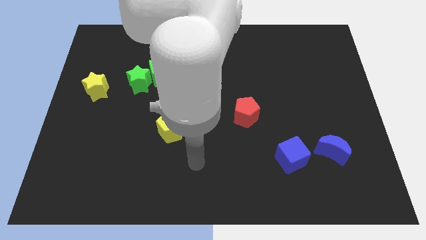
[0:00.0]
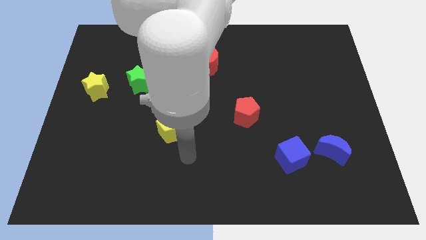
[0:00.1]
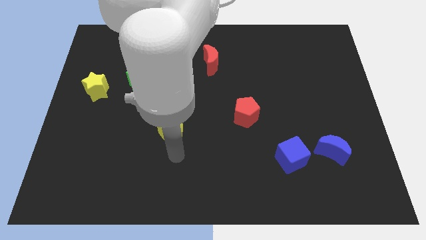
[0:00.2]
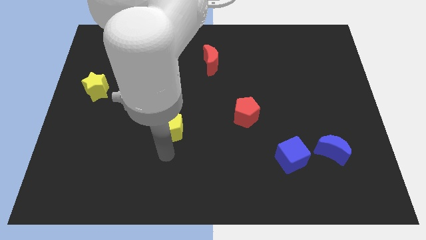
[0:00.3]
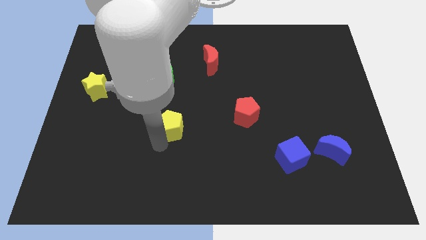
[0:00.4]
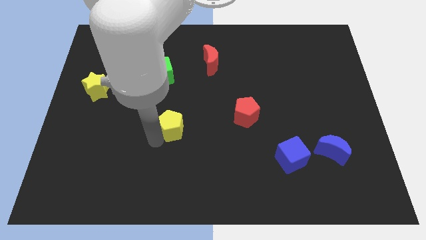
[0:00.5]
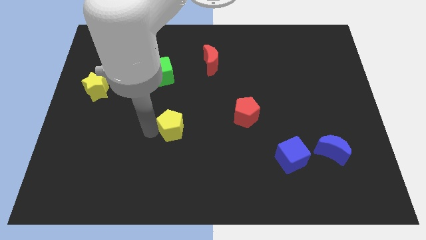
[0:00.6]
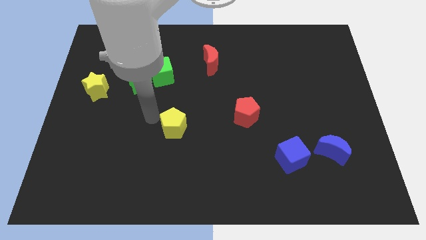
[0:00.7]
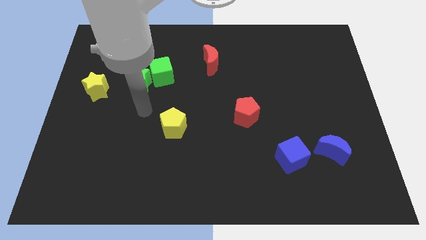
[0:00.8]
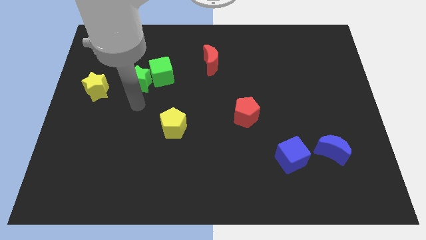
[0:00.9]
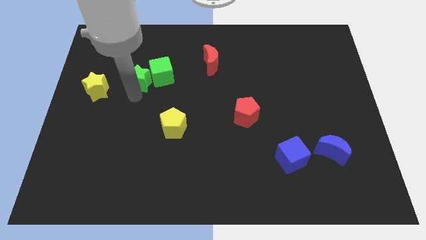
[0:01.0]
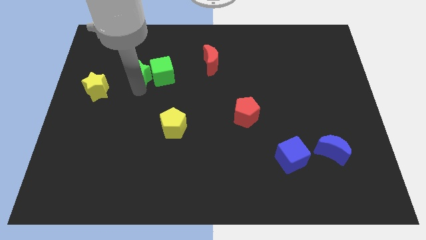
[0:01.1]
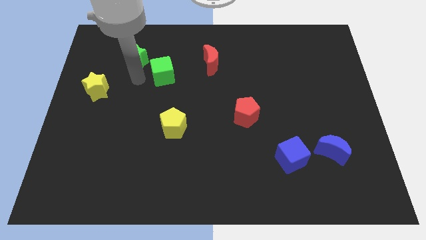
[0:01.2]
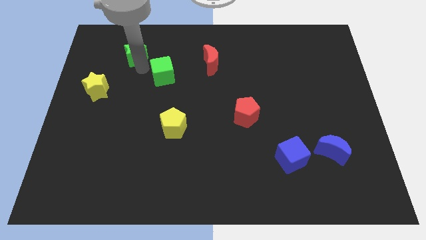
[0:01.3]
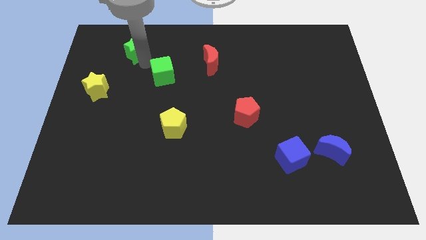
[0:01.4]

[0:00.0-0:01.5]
pull the green cube apart from the green star

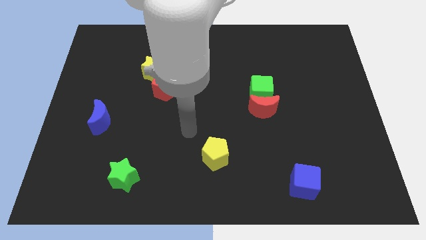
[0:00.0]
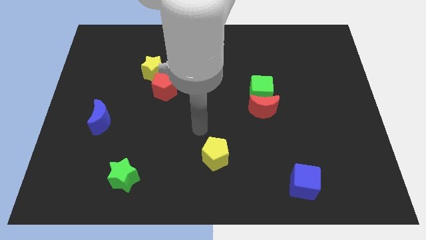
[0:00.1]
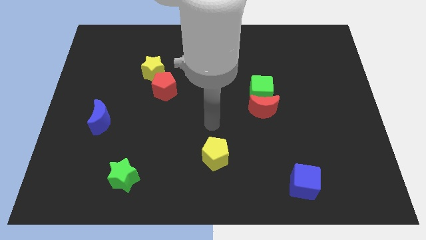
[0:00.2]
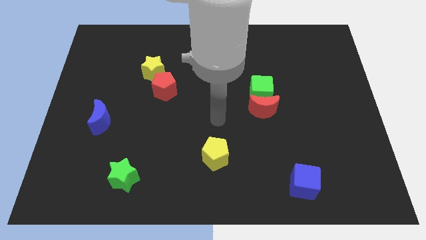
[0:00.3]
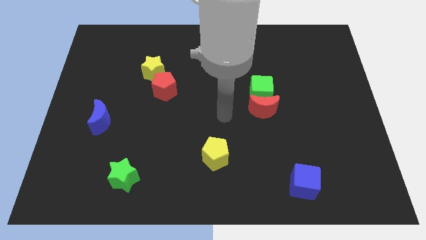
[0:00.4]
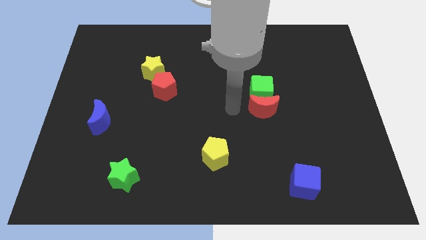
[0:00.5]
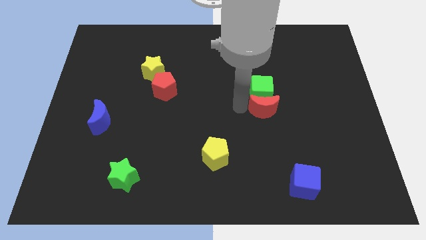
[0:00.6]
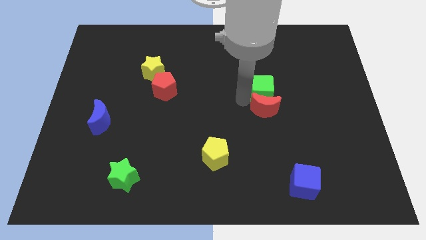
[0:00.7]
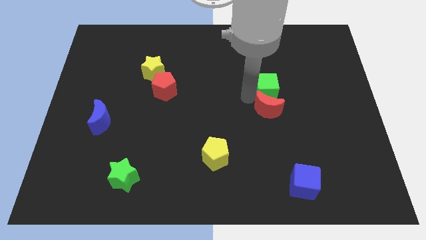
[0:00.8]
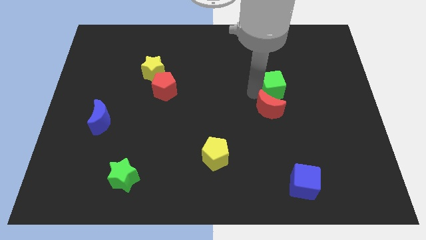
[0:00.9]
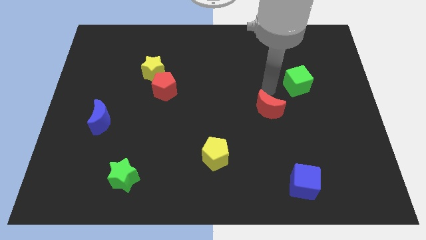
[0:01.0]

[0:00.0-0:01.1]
move the red moon away from the green cube

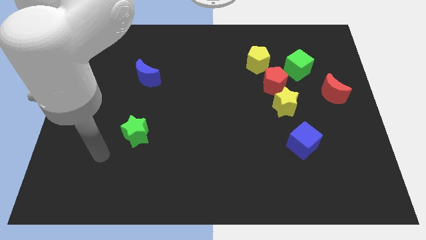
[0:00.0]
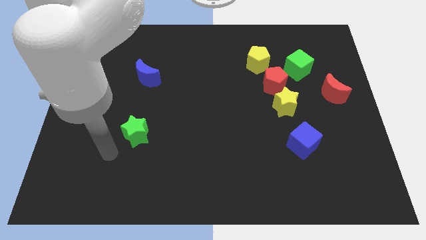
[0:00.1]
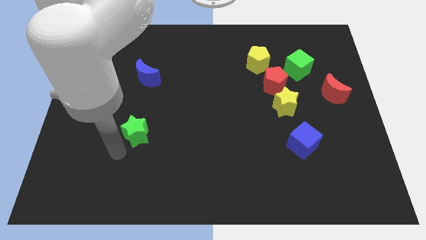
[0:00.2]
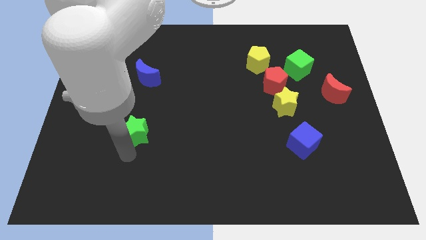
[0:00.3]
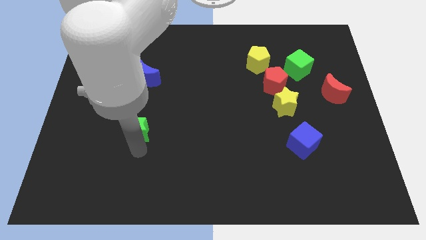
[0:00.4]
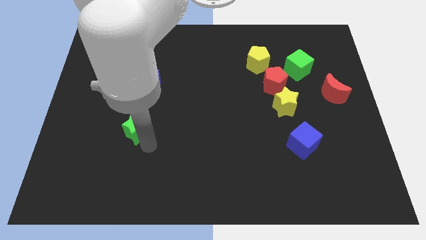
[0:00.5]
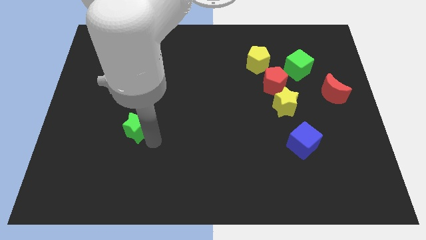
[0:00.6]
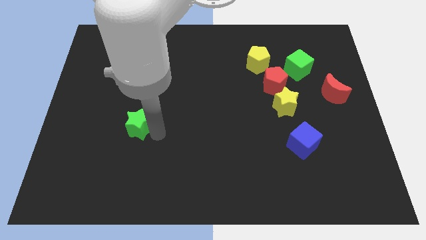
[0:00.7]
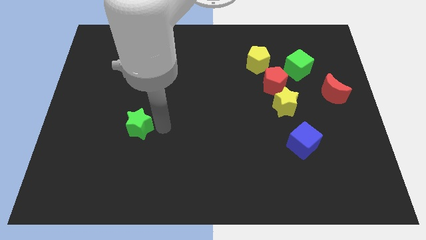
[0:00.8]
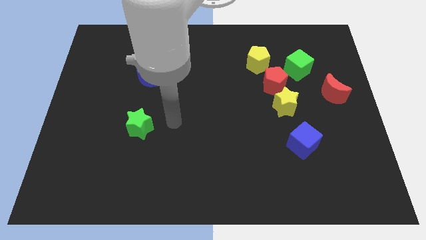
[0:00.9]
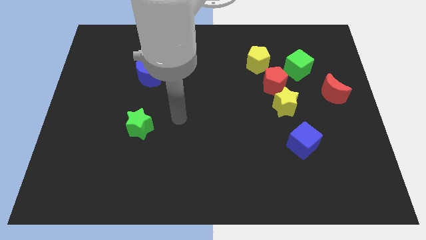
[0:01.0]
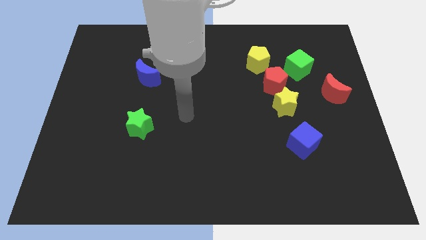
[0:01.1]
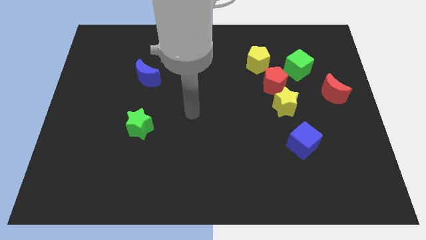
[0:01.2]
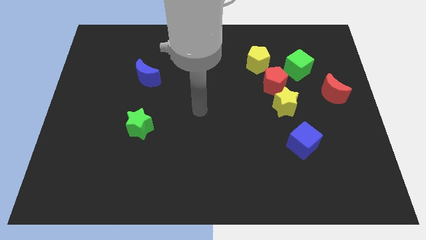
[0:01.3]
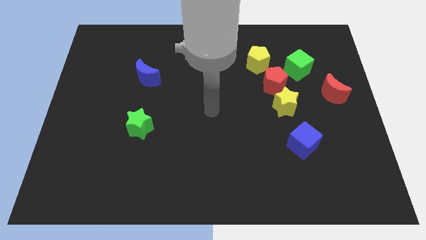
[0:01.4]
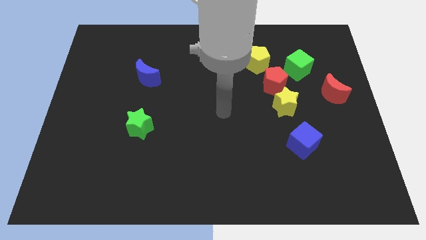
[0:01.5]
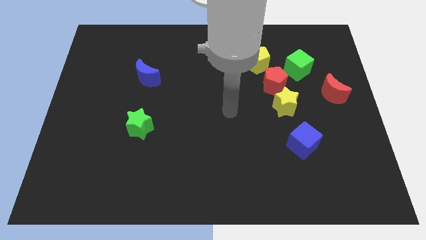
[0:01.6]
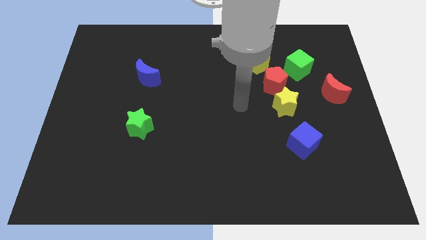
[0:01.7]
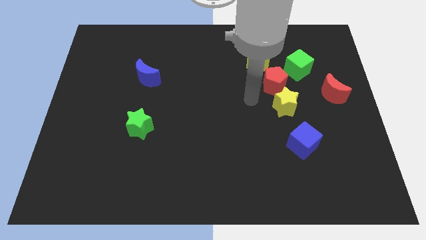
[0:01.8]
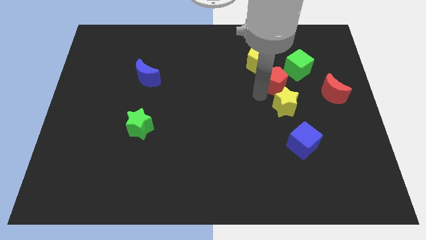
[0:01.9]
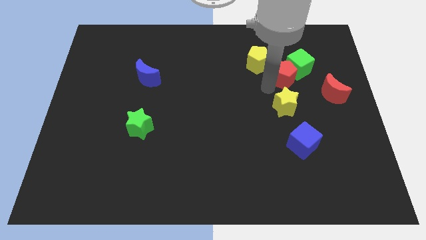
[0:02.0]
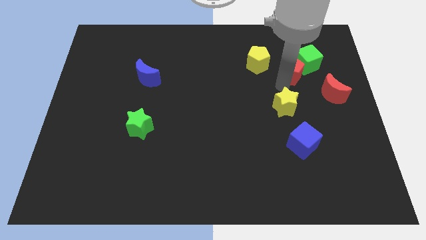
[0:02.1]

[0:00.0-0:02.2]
separate the yellow star from the red pentagon

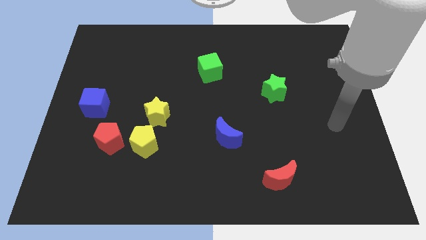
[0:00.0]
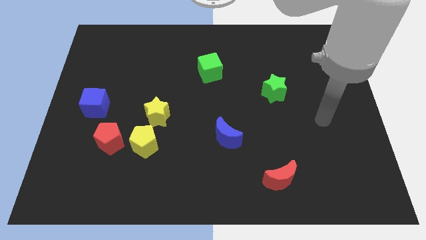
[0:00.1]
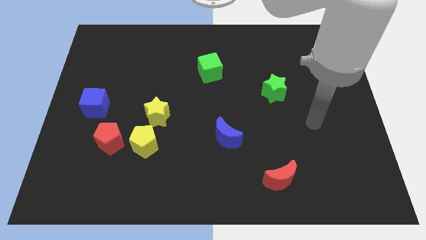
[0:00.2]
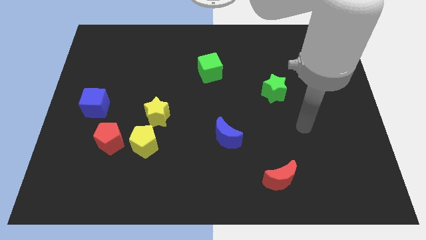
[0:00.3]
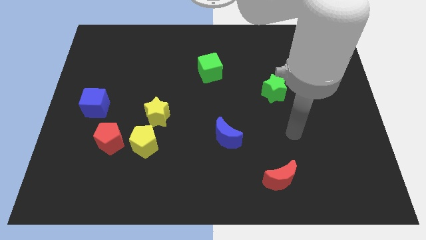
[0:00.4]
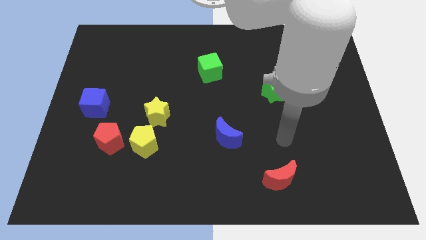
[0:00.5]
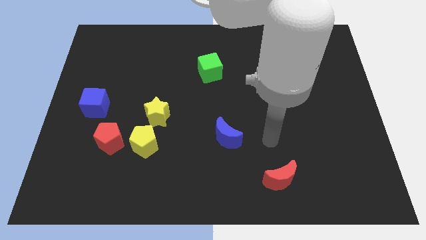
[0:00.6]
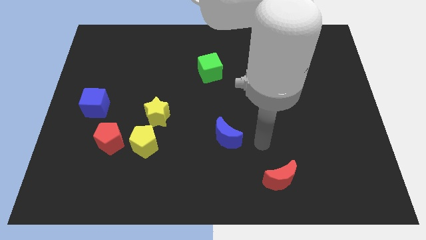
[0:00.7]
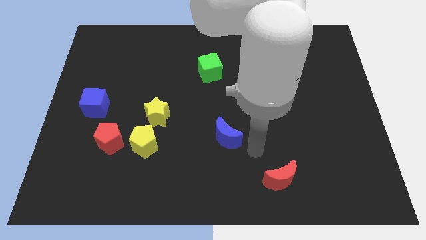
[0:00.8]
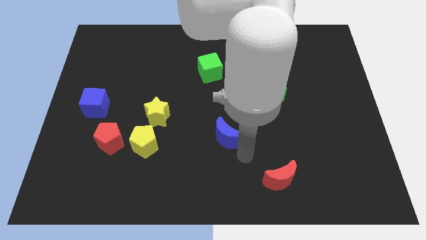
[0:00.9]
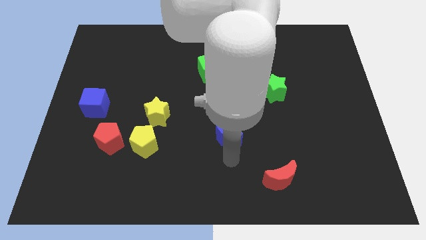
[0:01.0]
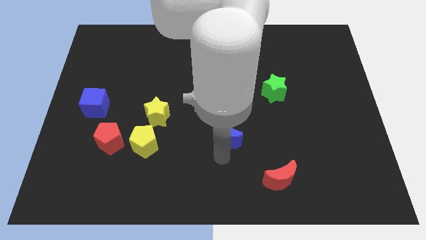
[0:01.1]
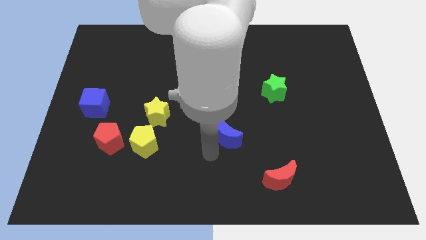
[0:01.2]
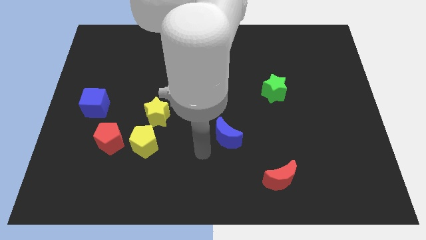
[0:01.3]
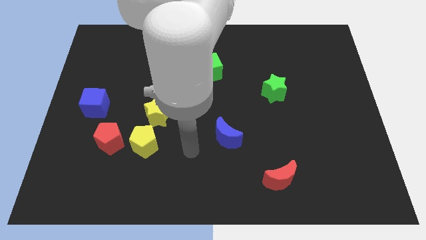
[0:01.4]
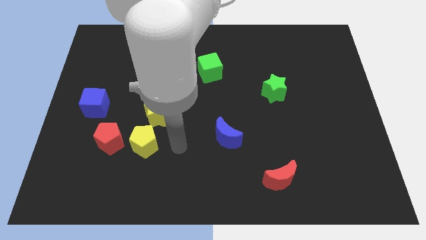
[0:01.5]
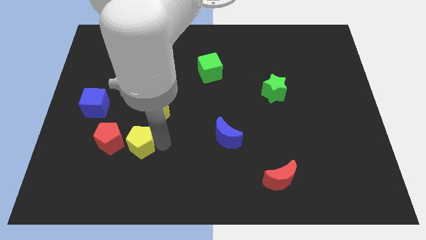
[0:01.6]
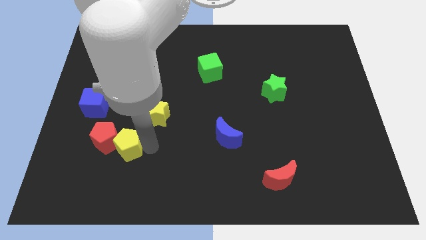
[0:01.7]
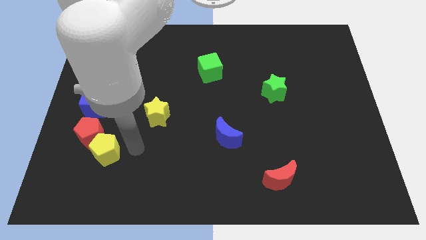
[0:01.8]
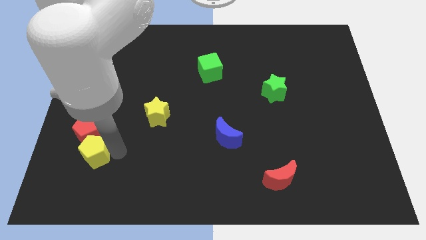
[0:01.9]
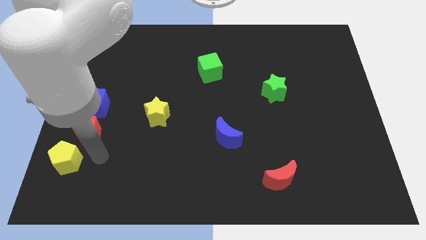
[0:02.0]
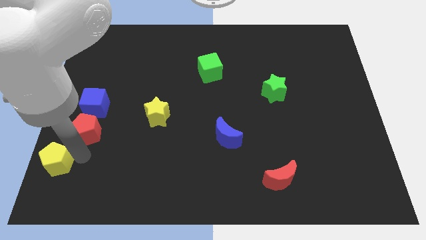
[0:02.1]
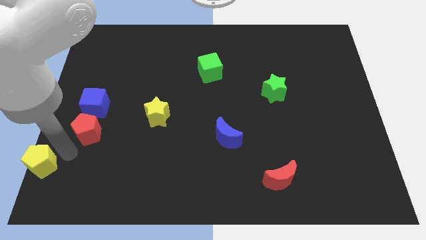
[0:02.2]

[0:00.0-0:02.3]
move the red pentagon away from the yellow pentagon

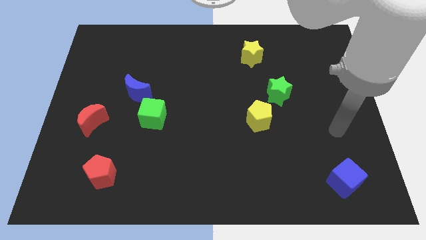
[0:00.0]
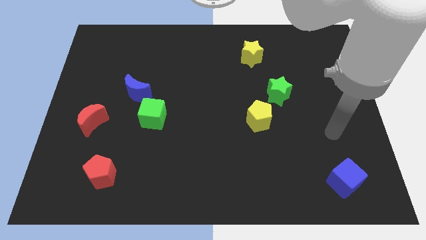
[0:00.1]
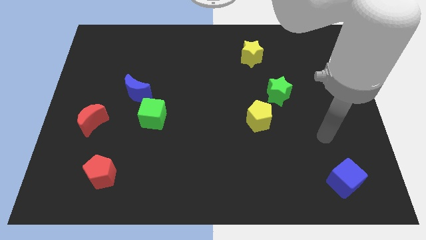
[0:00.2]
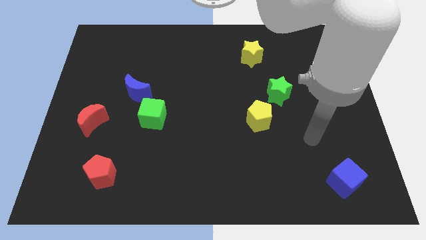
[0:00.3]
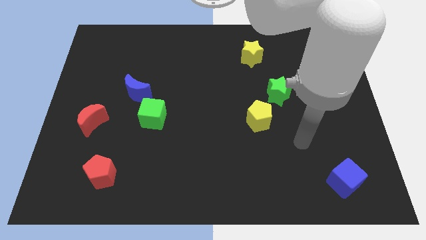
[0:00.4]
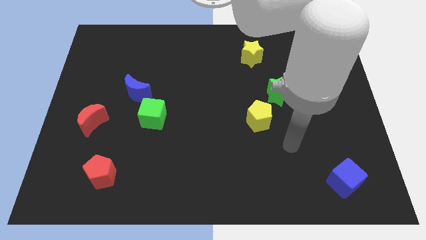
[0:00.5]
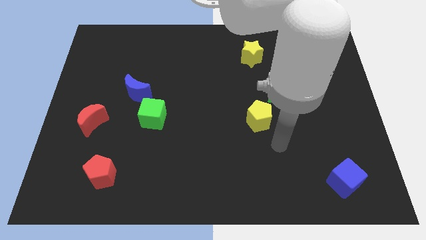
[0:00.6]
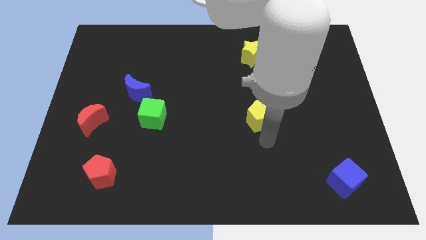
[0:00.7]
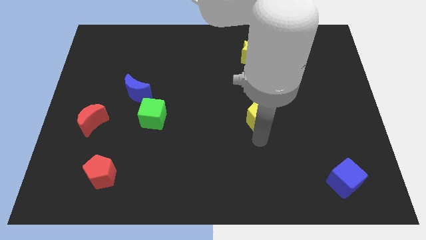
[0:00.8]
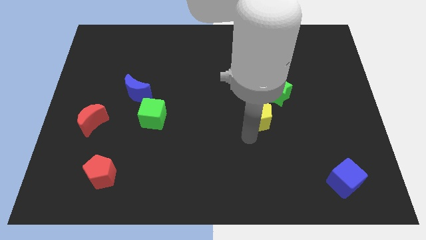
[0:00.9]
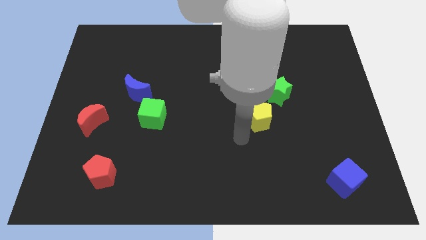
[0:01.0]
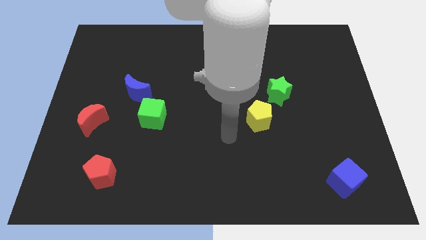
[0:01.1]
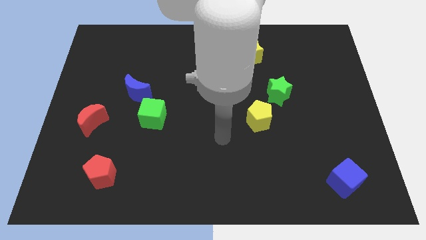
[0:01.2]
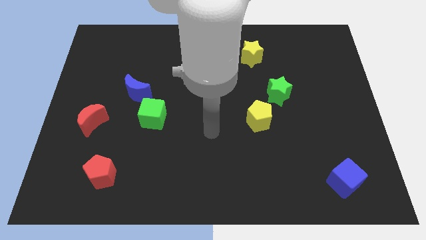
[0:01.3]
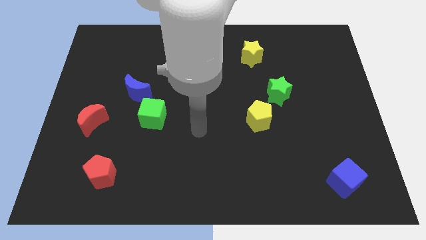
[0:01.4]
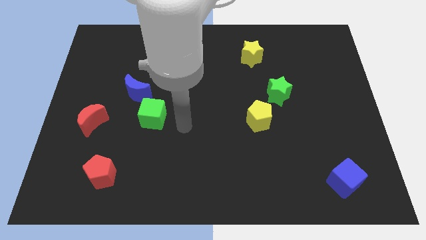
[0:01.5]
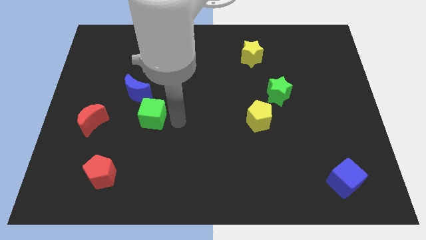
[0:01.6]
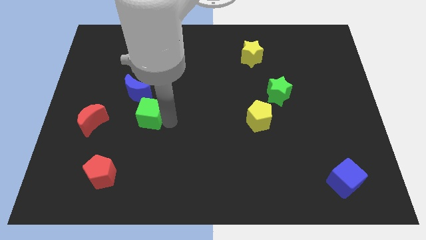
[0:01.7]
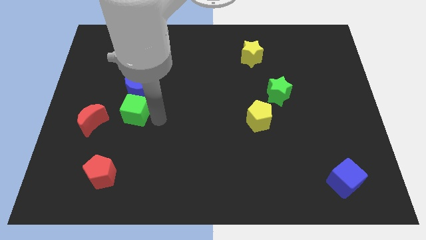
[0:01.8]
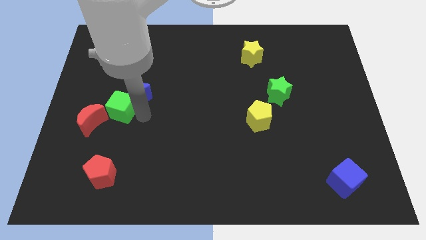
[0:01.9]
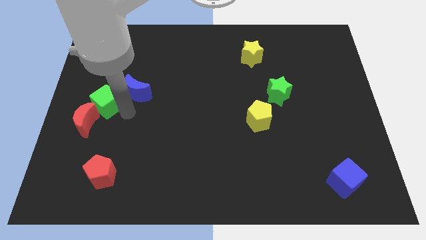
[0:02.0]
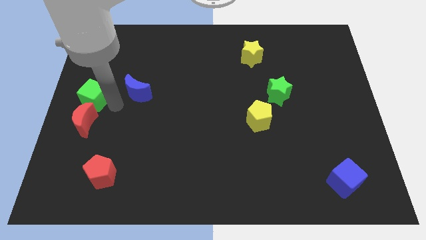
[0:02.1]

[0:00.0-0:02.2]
move the blue moon away from the green cube

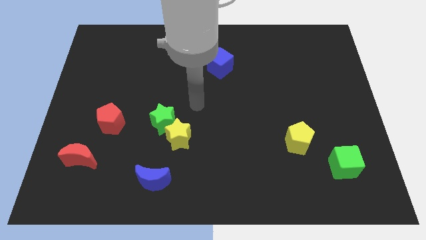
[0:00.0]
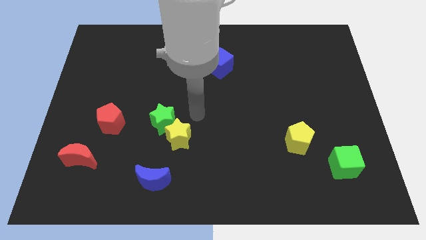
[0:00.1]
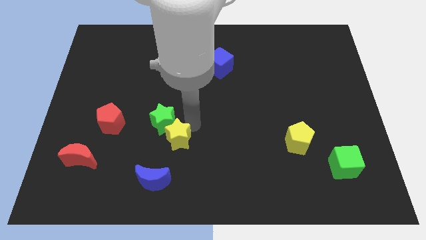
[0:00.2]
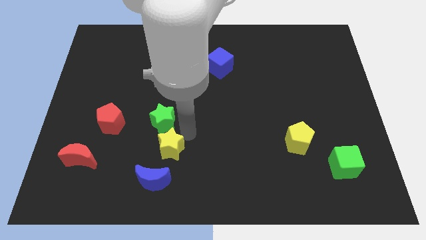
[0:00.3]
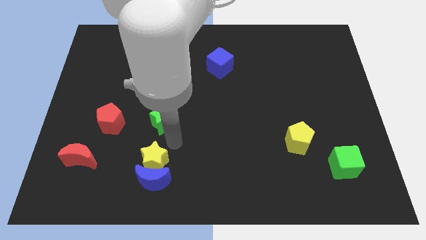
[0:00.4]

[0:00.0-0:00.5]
move the green star away from the yellow star
